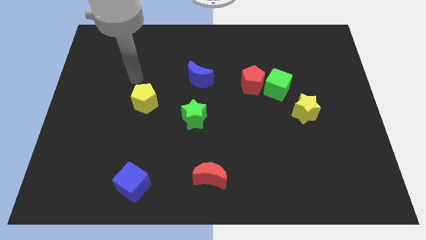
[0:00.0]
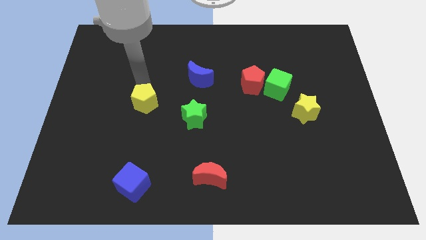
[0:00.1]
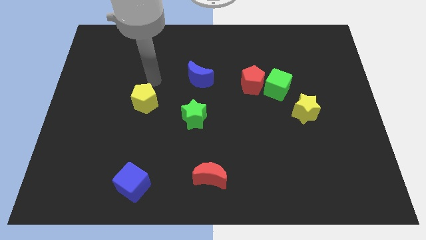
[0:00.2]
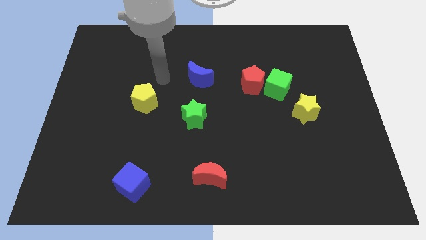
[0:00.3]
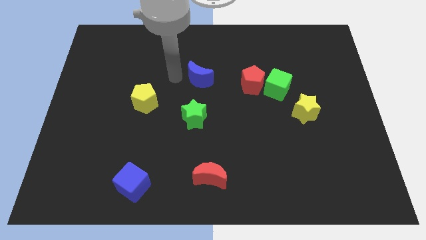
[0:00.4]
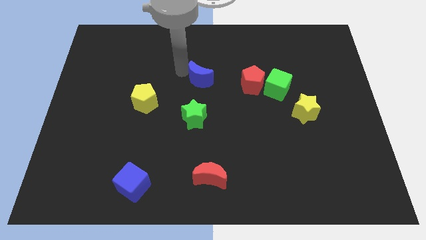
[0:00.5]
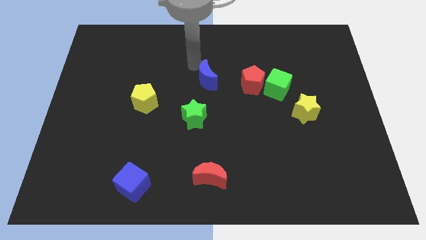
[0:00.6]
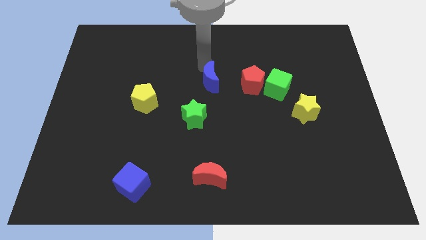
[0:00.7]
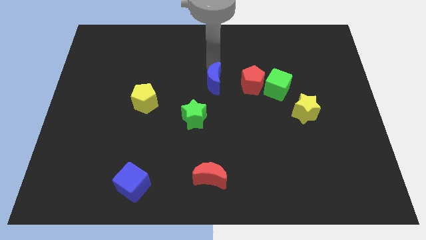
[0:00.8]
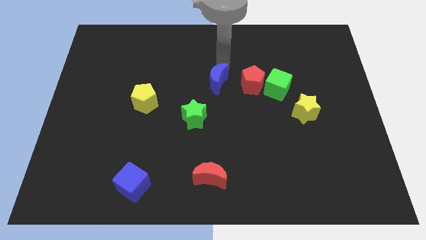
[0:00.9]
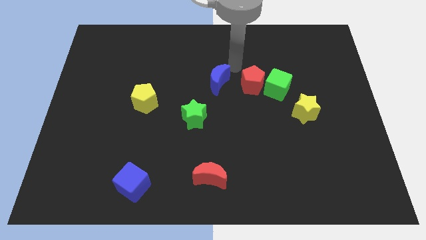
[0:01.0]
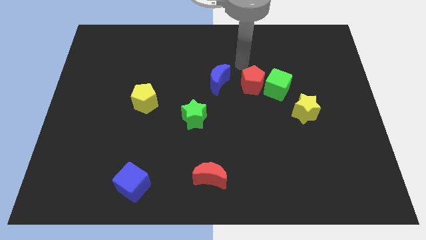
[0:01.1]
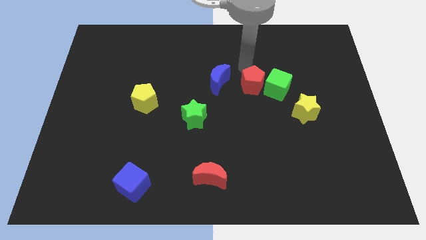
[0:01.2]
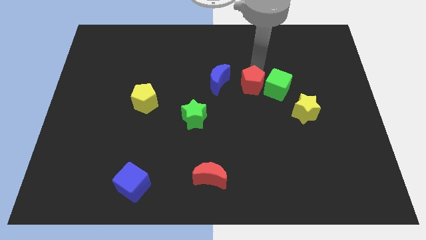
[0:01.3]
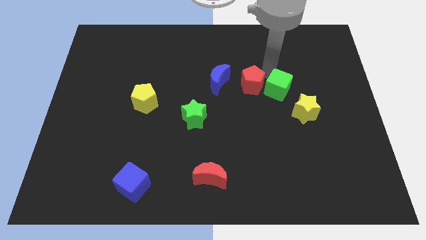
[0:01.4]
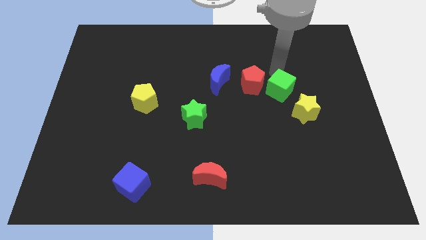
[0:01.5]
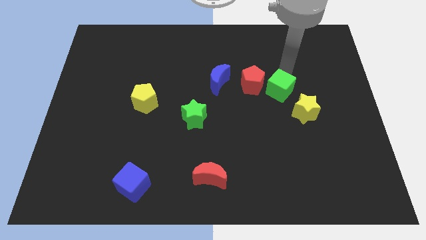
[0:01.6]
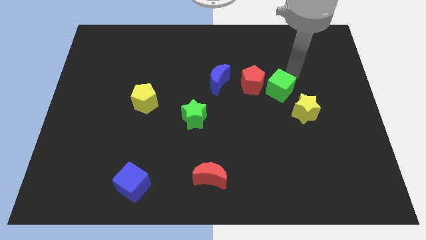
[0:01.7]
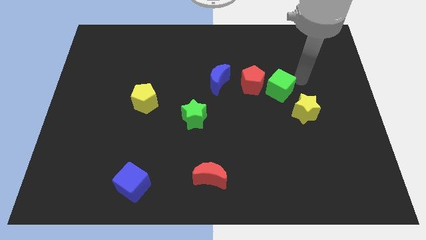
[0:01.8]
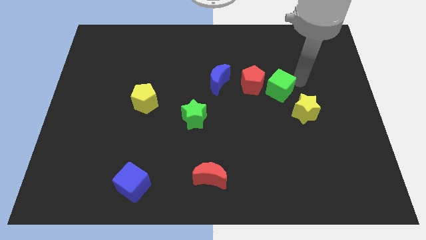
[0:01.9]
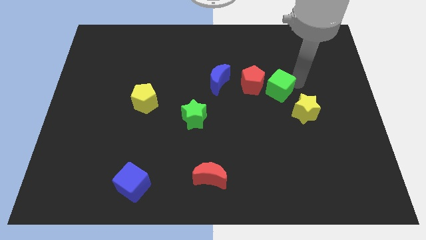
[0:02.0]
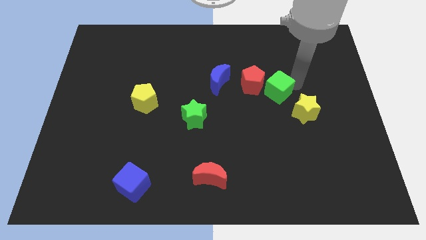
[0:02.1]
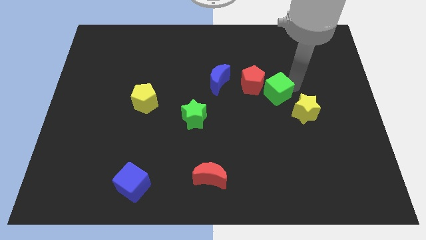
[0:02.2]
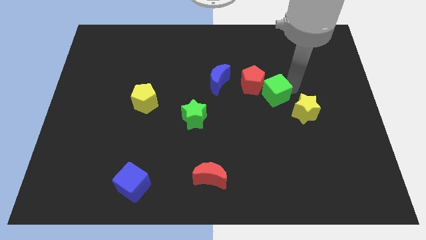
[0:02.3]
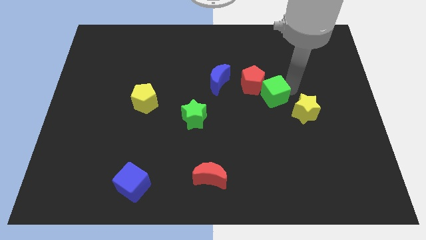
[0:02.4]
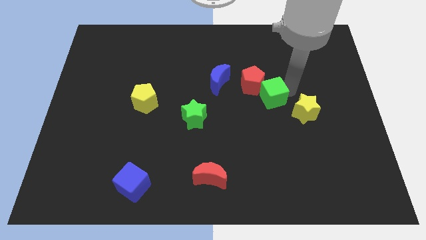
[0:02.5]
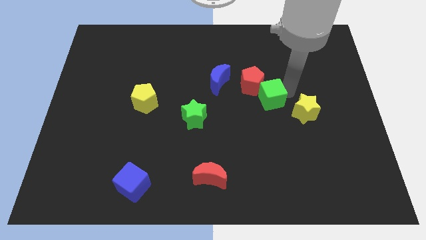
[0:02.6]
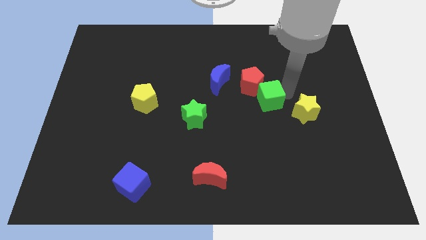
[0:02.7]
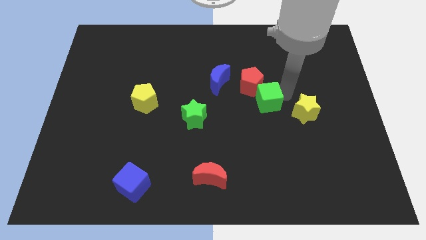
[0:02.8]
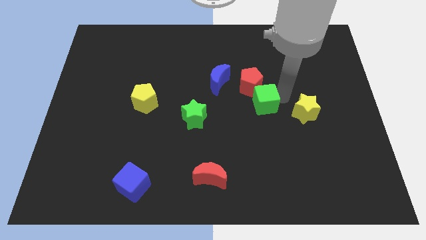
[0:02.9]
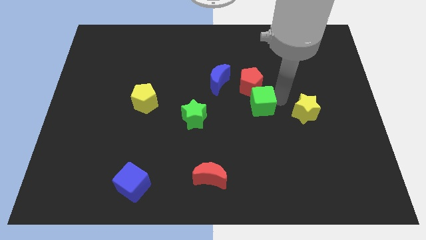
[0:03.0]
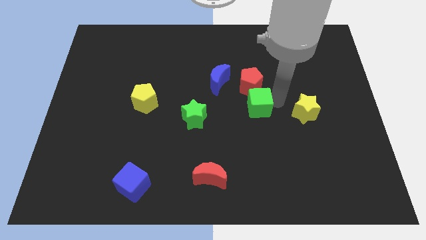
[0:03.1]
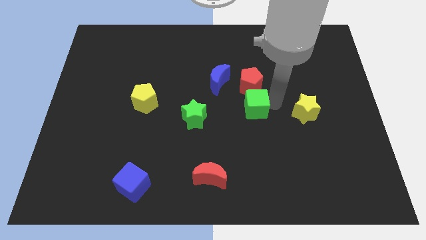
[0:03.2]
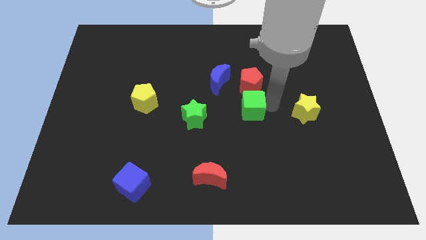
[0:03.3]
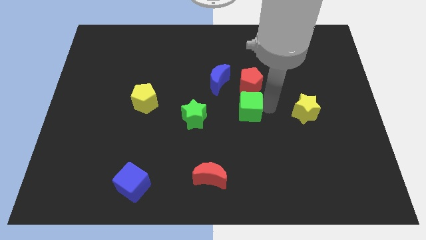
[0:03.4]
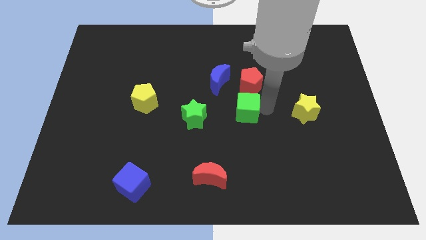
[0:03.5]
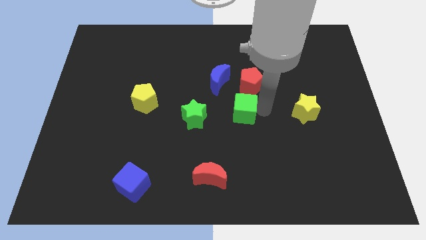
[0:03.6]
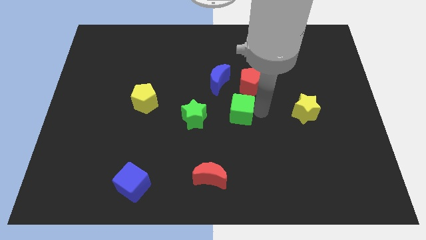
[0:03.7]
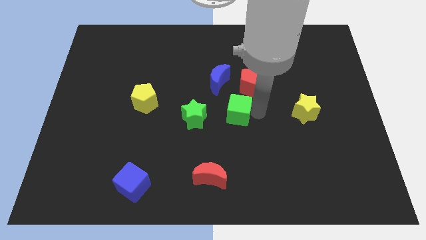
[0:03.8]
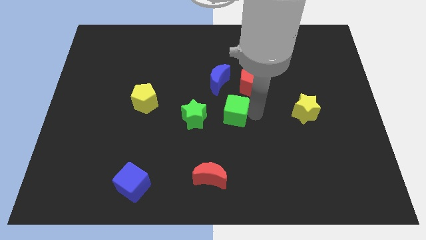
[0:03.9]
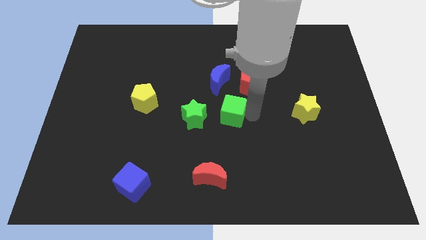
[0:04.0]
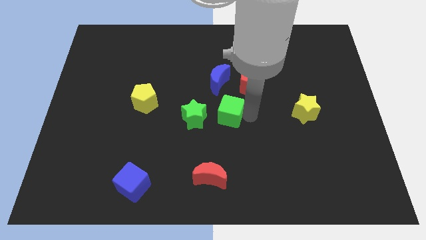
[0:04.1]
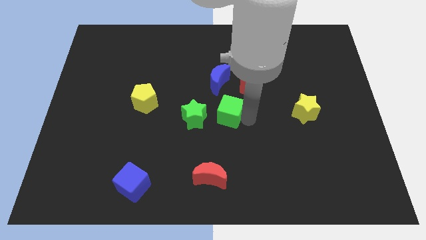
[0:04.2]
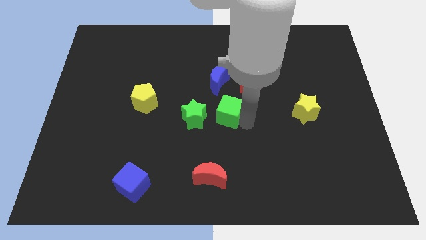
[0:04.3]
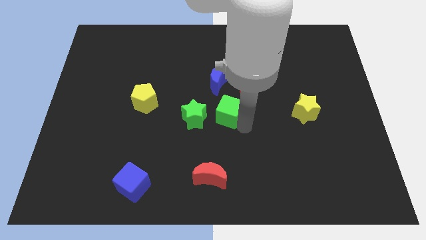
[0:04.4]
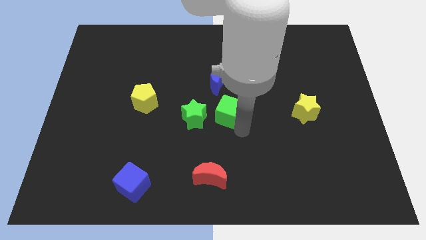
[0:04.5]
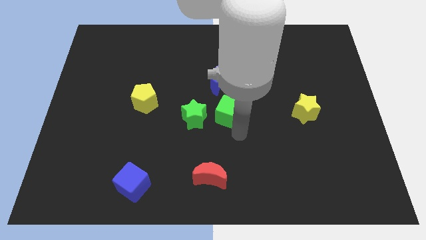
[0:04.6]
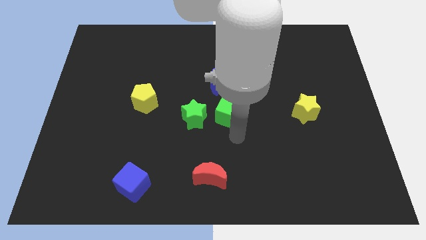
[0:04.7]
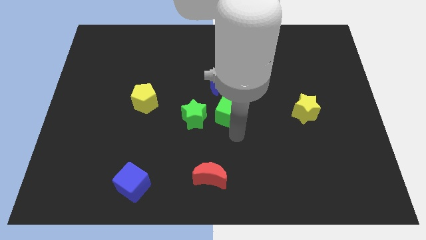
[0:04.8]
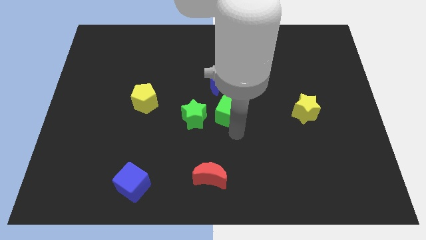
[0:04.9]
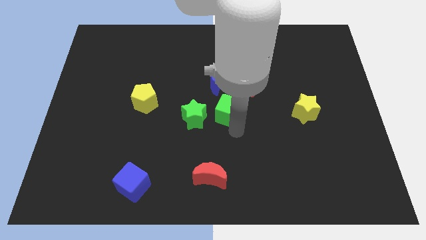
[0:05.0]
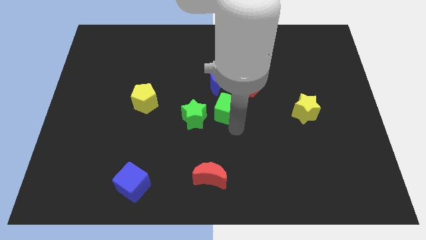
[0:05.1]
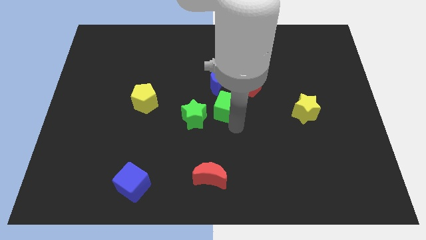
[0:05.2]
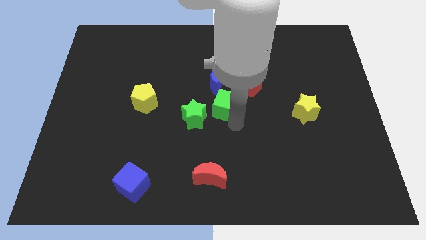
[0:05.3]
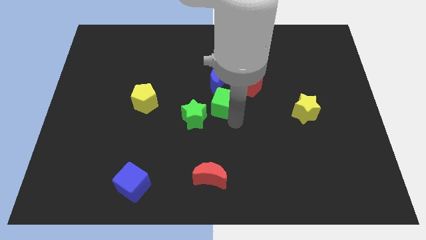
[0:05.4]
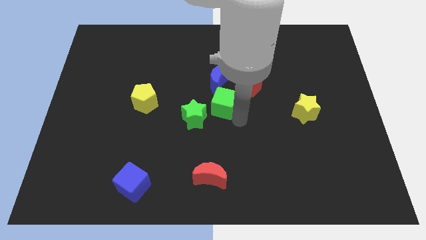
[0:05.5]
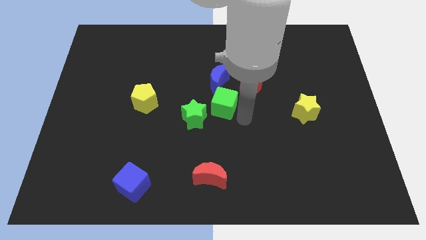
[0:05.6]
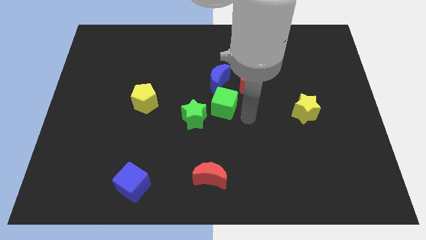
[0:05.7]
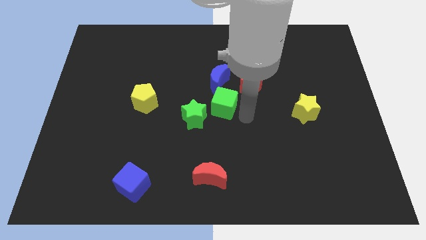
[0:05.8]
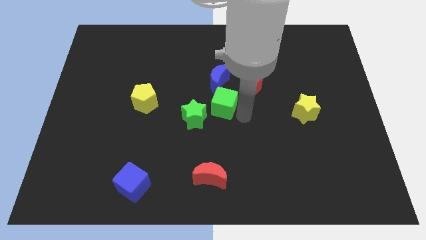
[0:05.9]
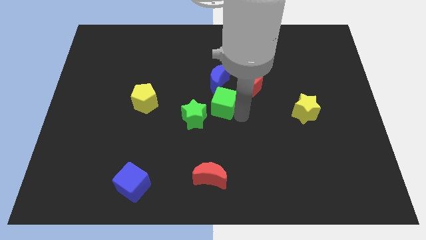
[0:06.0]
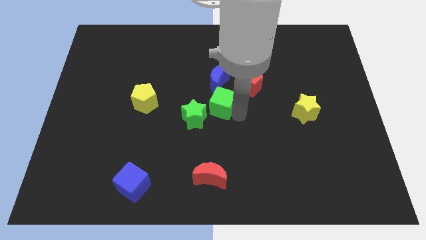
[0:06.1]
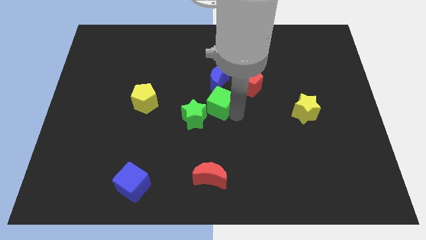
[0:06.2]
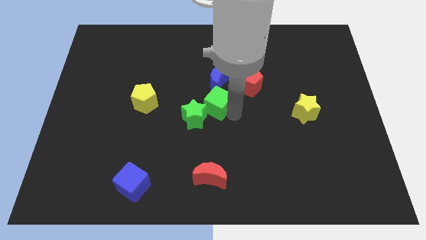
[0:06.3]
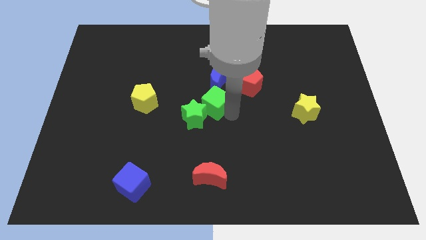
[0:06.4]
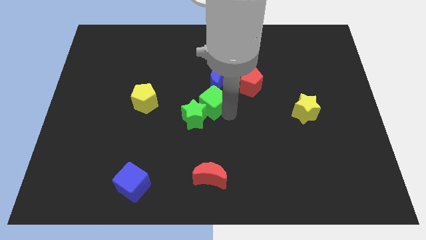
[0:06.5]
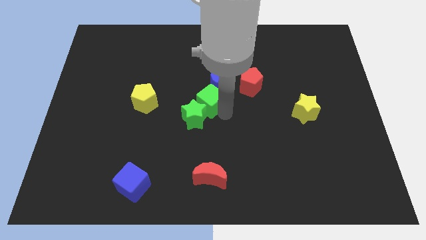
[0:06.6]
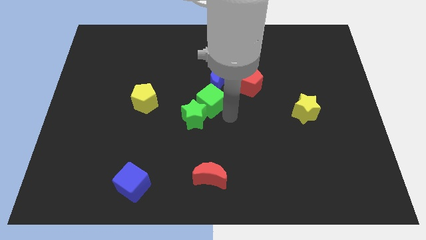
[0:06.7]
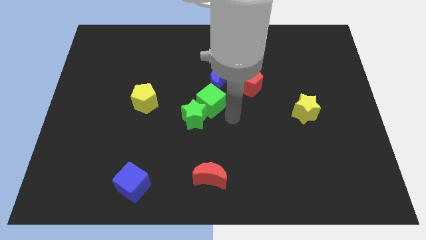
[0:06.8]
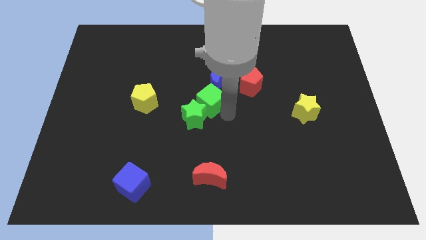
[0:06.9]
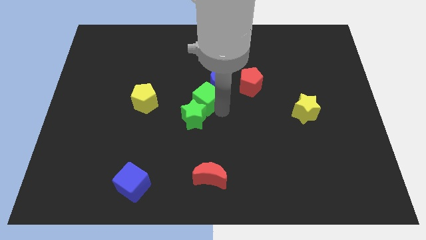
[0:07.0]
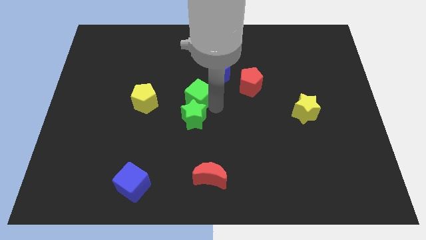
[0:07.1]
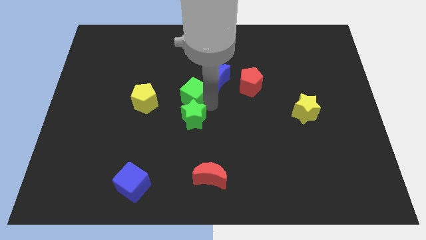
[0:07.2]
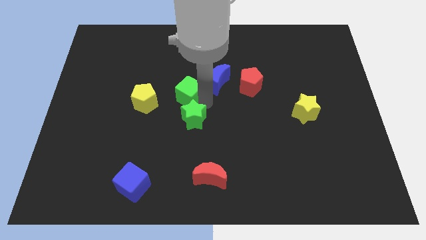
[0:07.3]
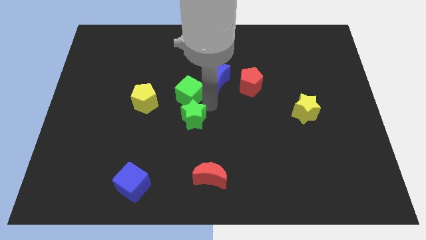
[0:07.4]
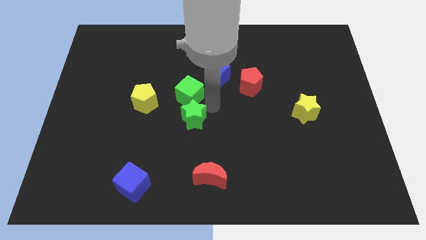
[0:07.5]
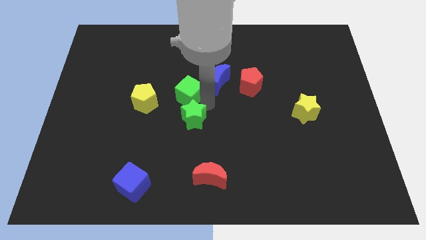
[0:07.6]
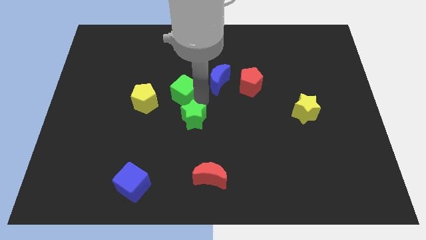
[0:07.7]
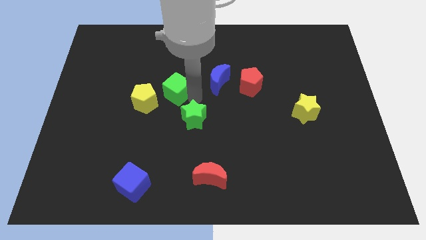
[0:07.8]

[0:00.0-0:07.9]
move the green cube to the top right side of the yellow pentagon
